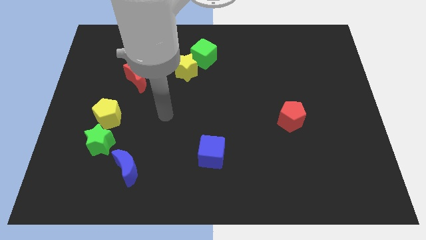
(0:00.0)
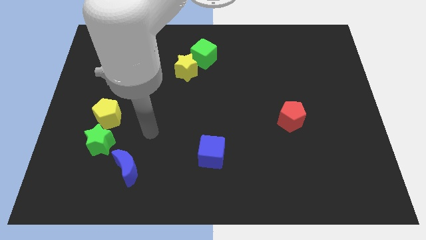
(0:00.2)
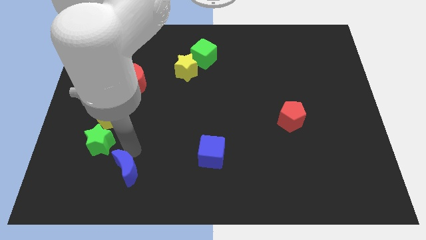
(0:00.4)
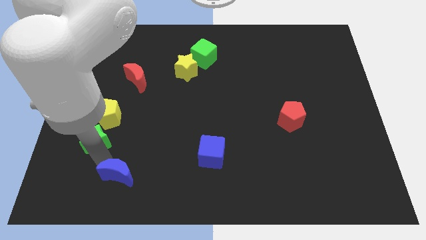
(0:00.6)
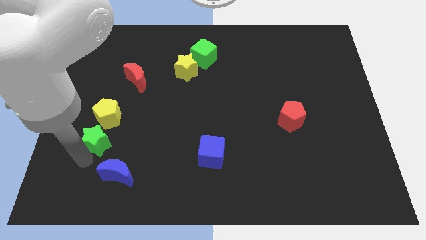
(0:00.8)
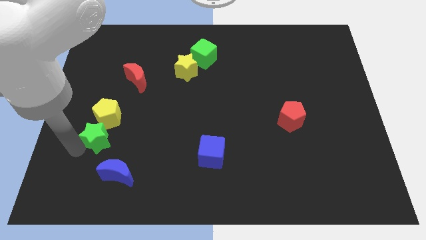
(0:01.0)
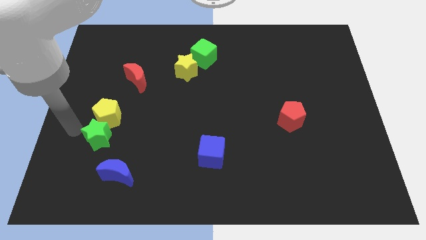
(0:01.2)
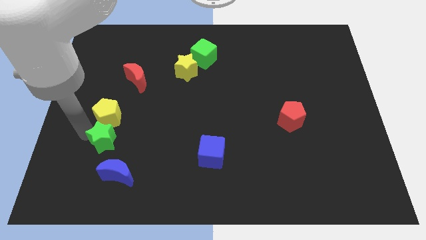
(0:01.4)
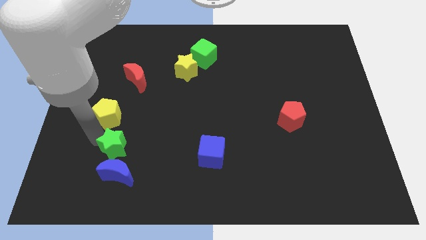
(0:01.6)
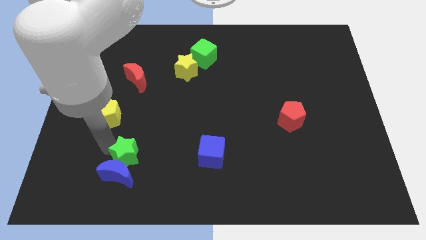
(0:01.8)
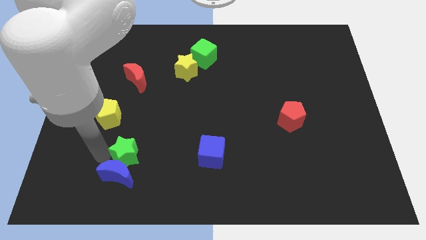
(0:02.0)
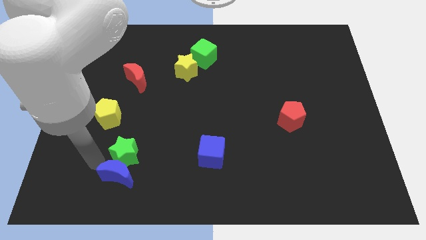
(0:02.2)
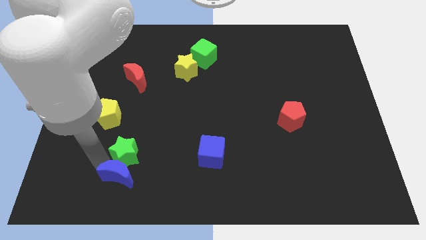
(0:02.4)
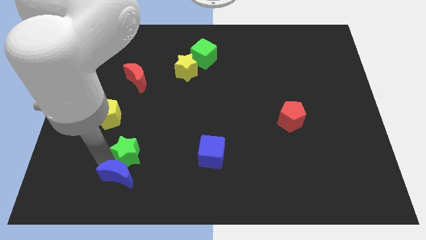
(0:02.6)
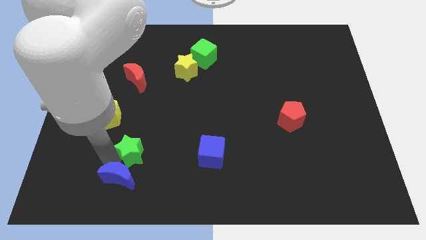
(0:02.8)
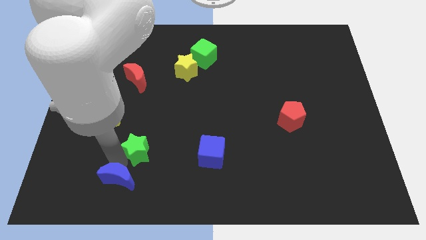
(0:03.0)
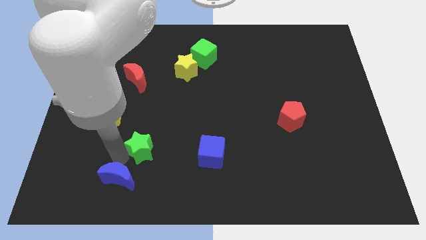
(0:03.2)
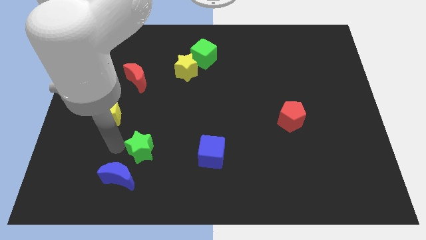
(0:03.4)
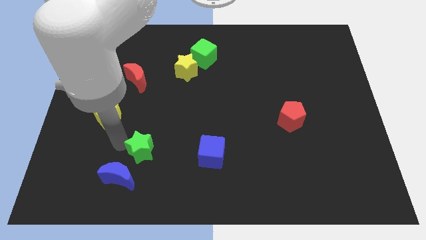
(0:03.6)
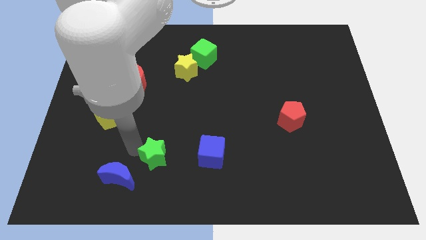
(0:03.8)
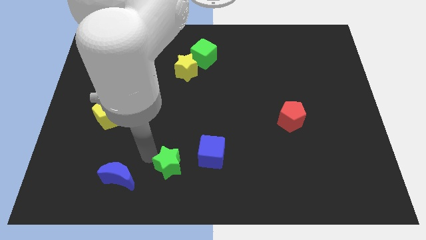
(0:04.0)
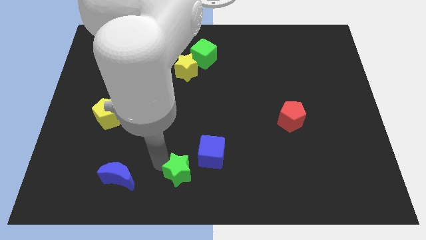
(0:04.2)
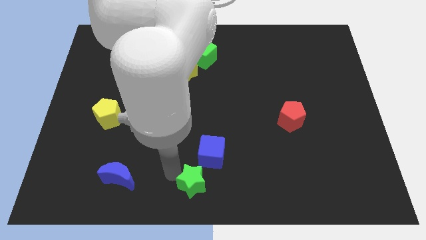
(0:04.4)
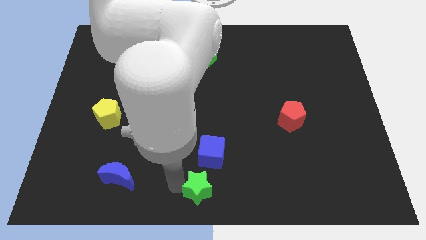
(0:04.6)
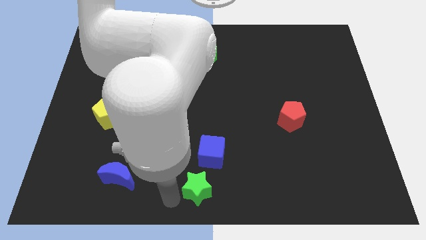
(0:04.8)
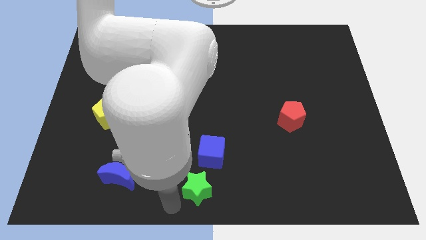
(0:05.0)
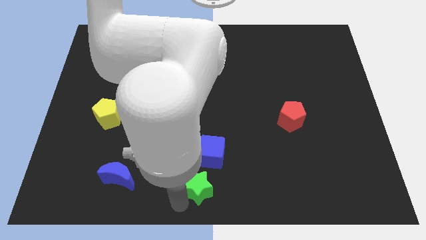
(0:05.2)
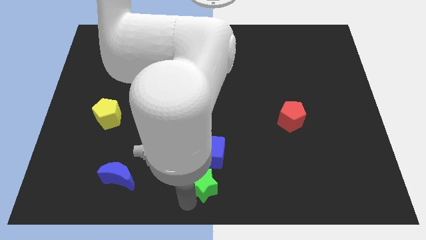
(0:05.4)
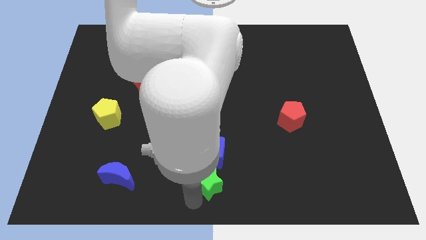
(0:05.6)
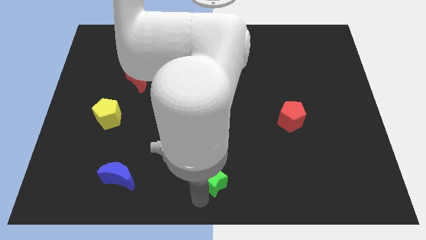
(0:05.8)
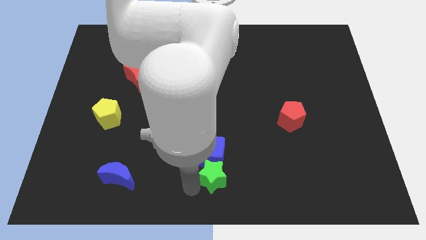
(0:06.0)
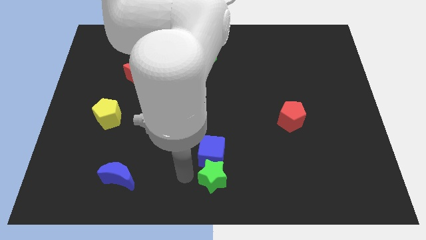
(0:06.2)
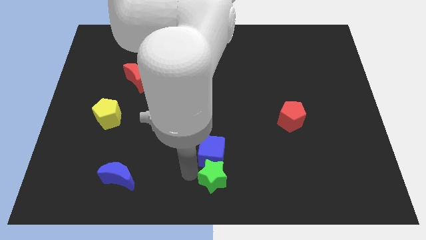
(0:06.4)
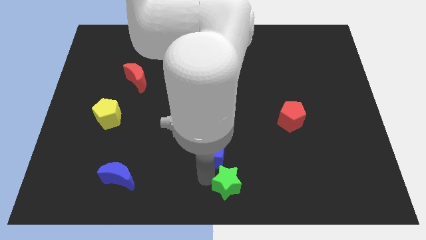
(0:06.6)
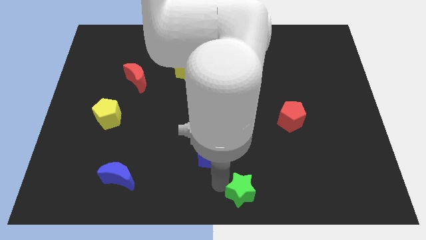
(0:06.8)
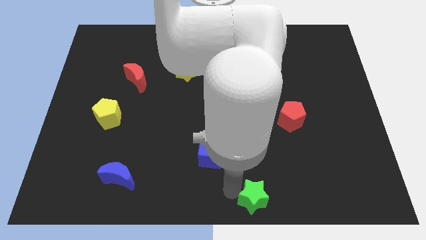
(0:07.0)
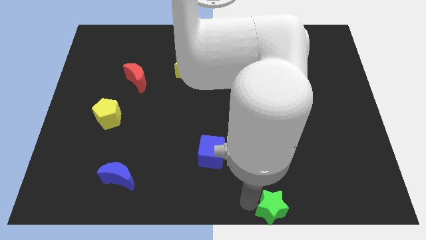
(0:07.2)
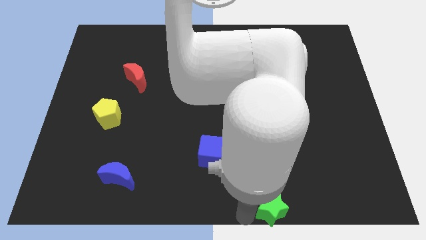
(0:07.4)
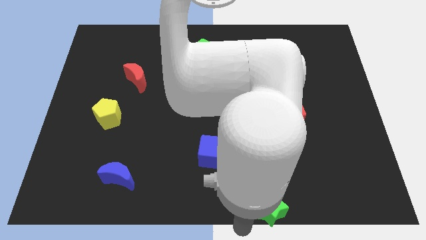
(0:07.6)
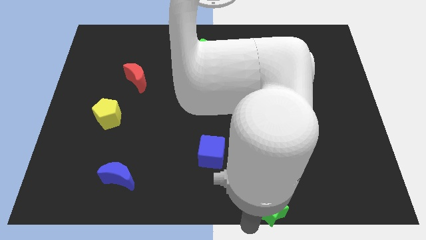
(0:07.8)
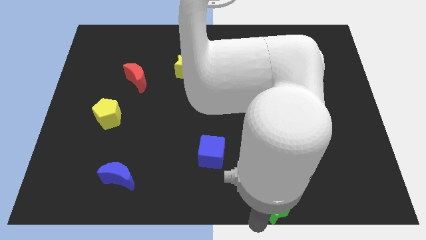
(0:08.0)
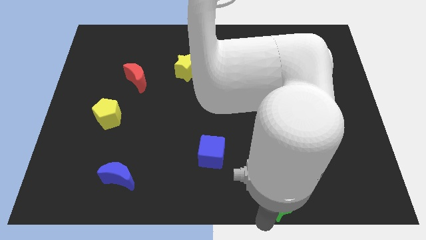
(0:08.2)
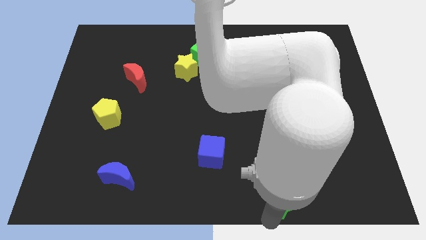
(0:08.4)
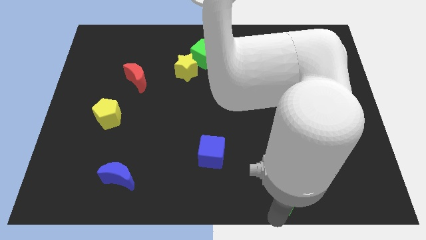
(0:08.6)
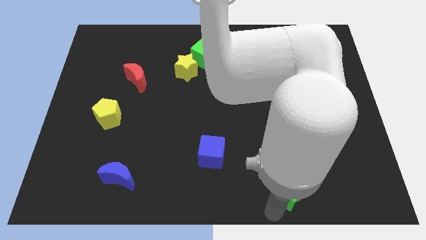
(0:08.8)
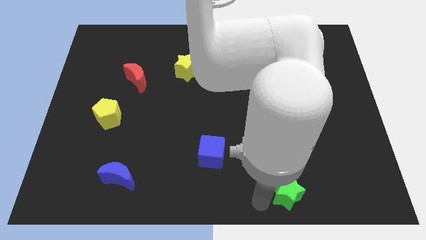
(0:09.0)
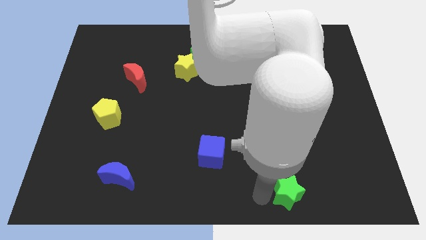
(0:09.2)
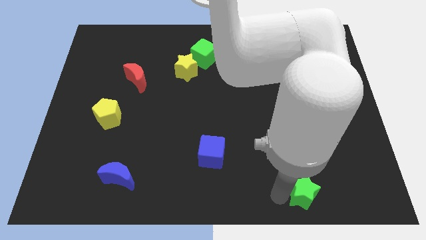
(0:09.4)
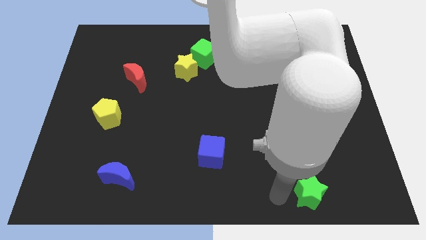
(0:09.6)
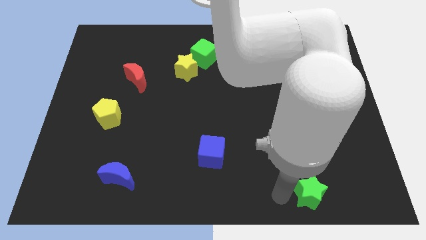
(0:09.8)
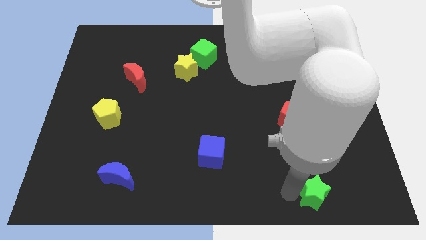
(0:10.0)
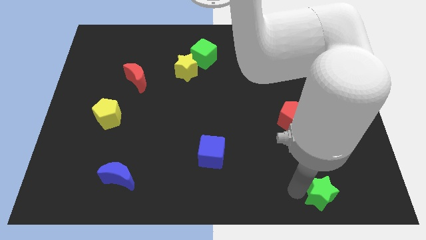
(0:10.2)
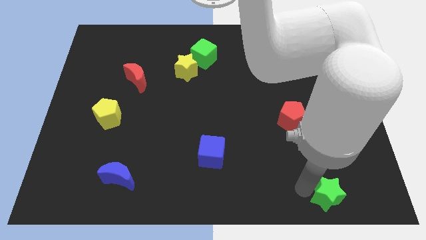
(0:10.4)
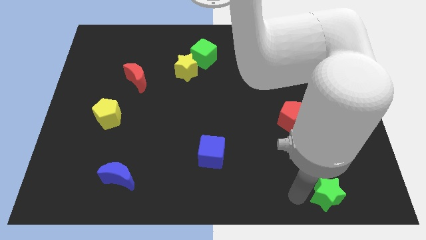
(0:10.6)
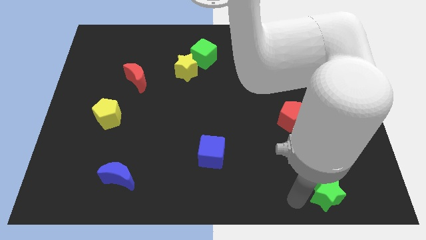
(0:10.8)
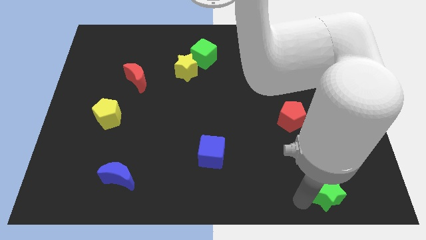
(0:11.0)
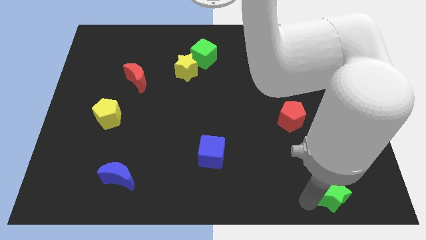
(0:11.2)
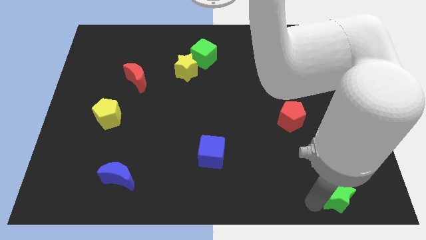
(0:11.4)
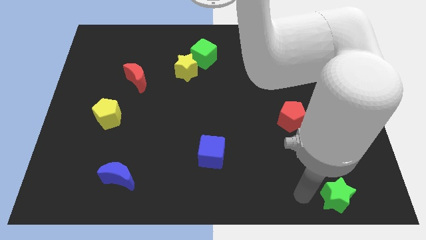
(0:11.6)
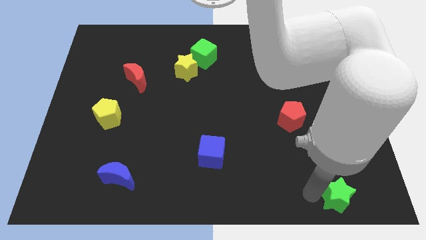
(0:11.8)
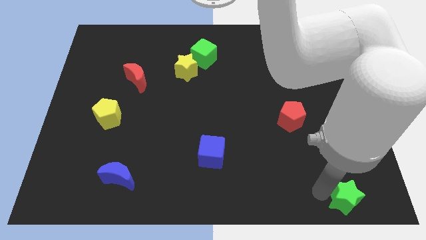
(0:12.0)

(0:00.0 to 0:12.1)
push the green star to the bottom right corner

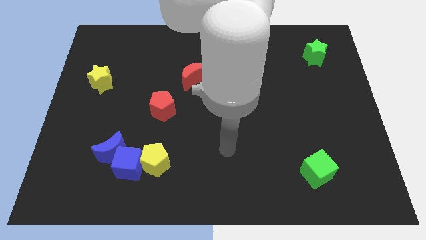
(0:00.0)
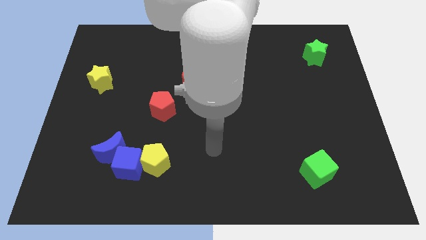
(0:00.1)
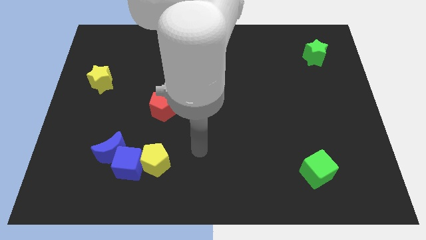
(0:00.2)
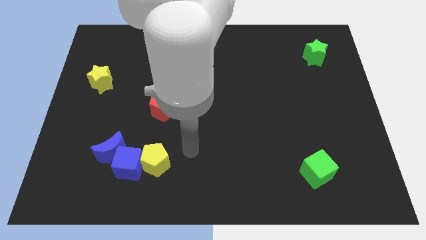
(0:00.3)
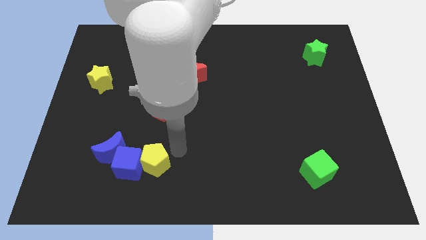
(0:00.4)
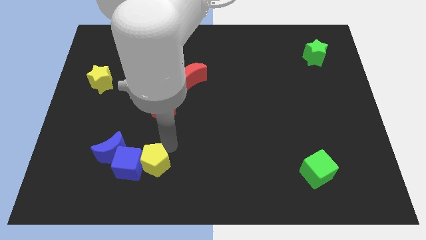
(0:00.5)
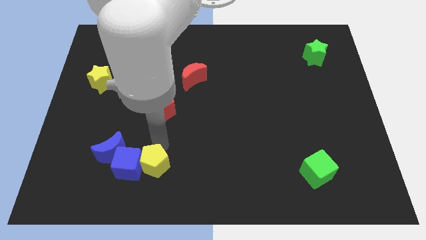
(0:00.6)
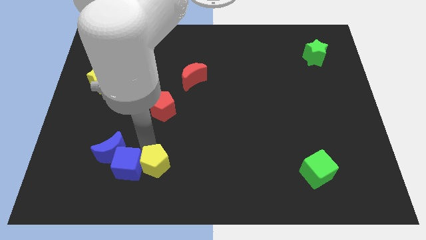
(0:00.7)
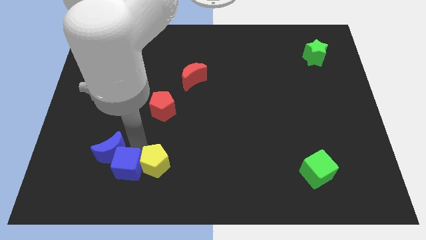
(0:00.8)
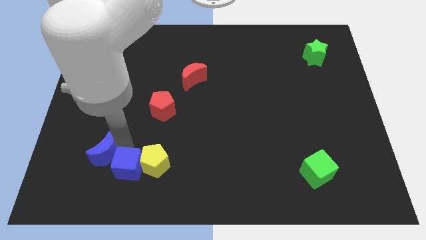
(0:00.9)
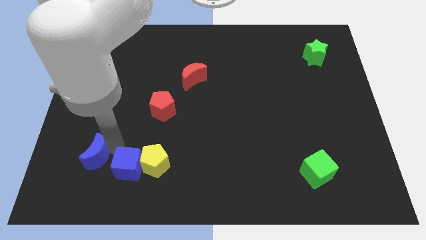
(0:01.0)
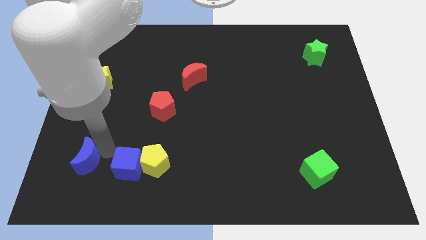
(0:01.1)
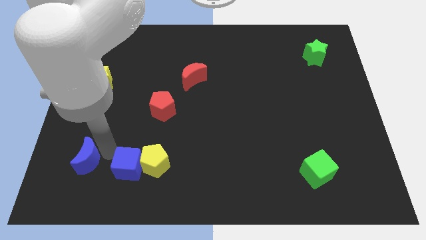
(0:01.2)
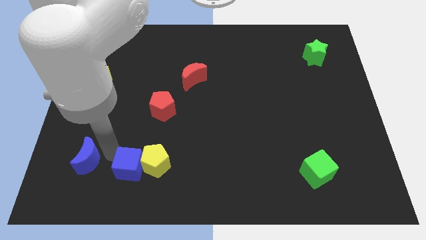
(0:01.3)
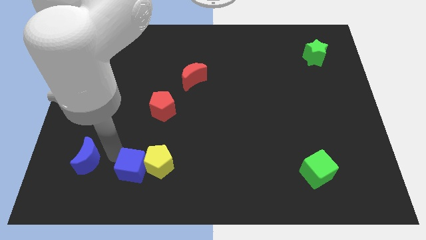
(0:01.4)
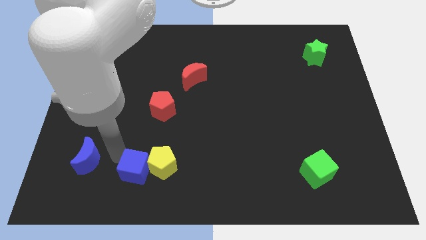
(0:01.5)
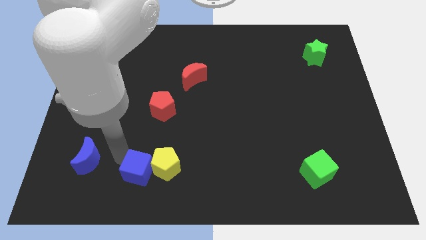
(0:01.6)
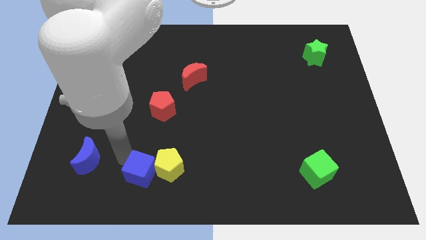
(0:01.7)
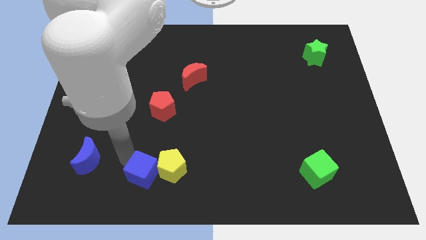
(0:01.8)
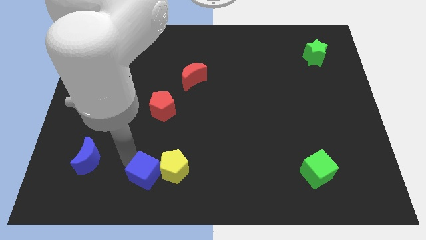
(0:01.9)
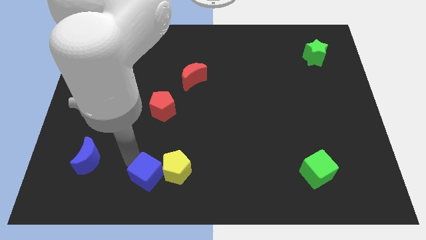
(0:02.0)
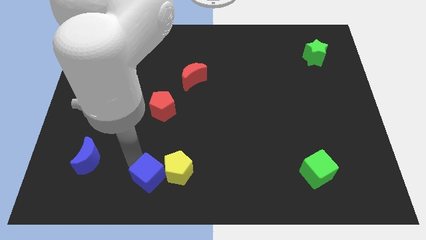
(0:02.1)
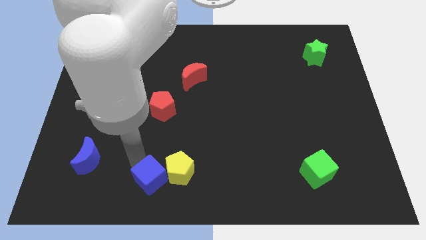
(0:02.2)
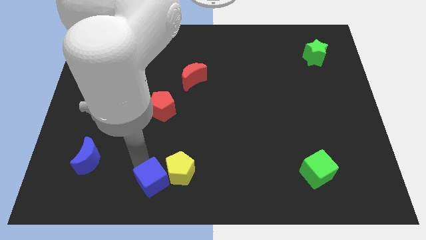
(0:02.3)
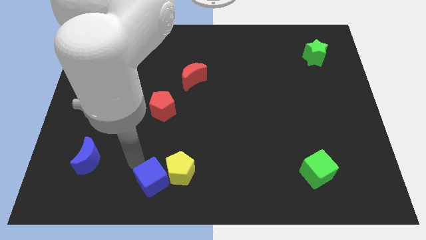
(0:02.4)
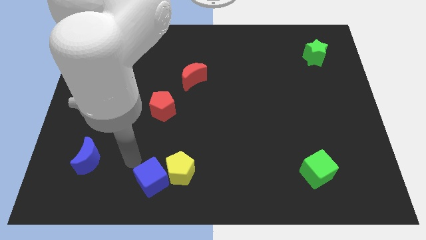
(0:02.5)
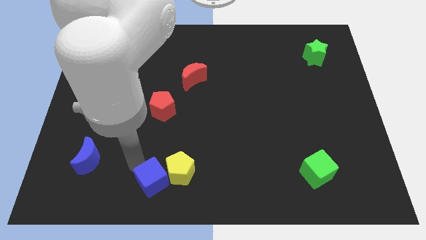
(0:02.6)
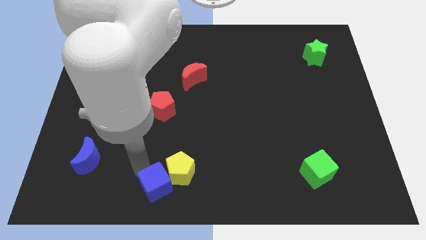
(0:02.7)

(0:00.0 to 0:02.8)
put the blue cube to the bottom side
